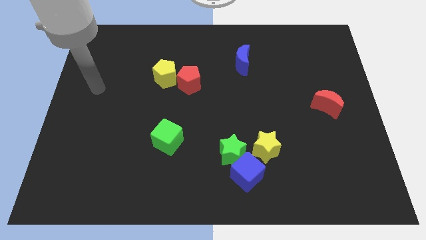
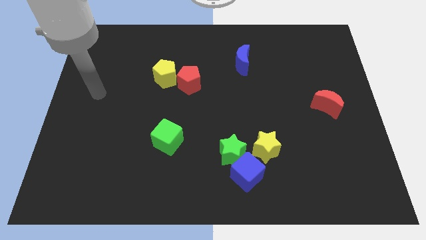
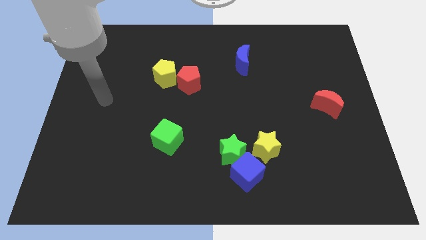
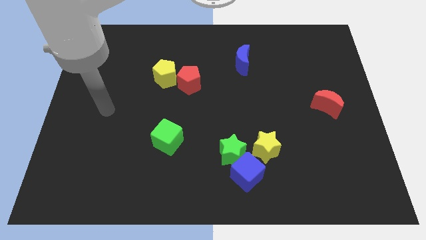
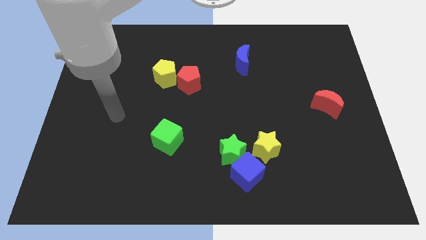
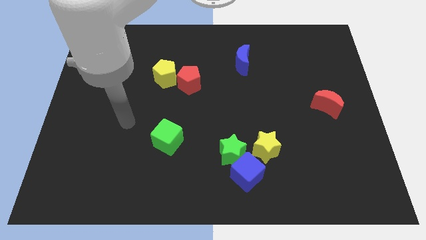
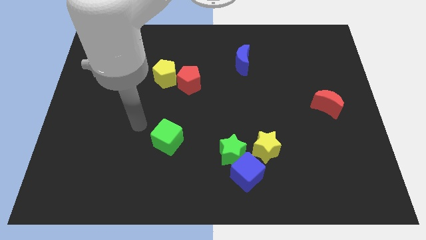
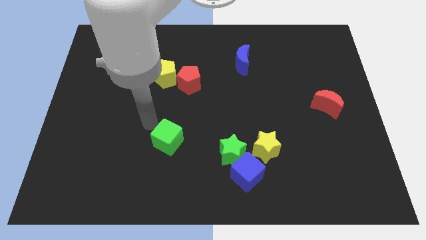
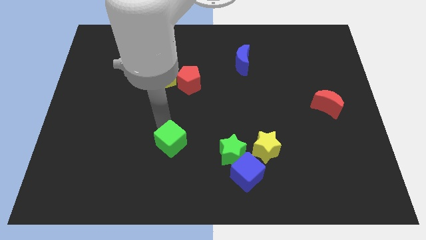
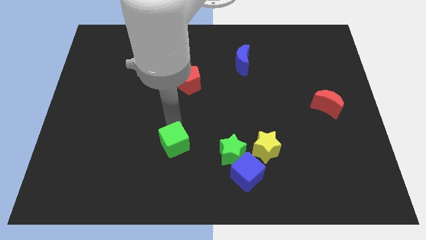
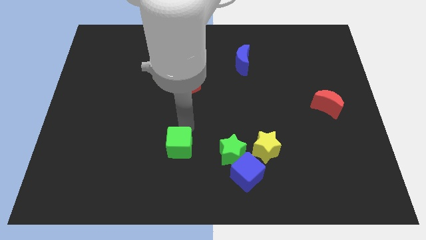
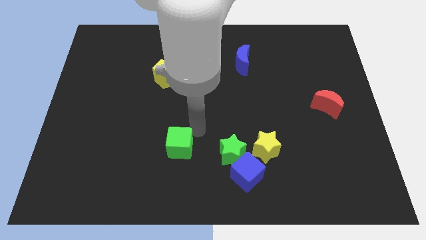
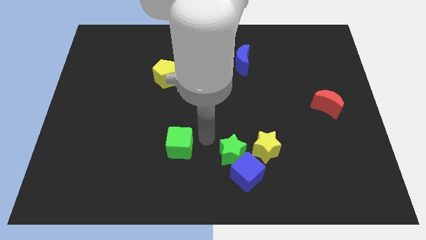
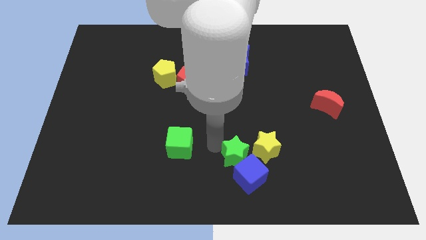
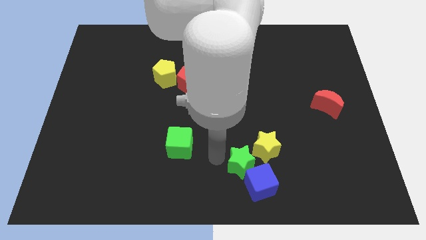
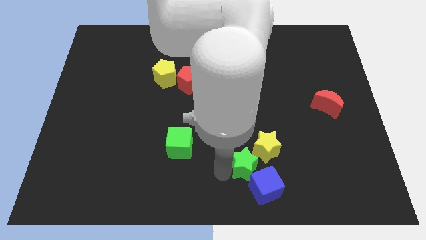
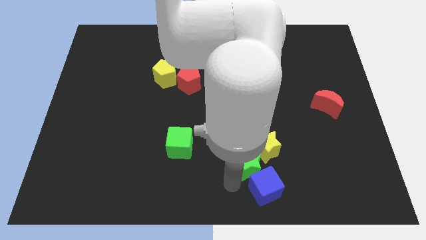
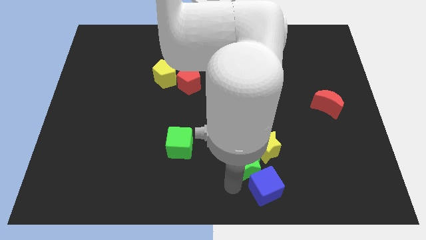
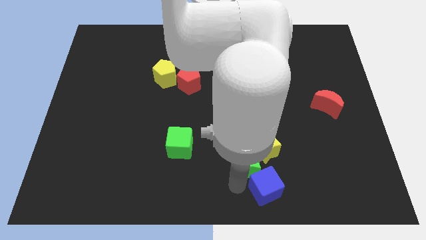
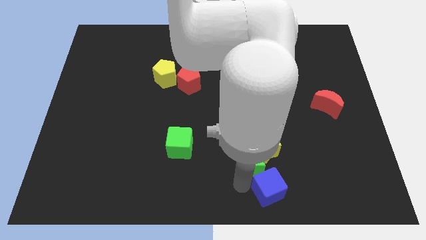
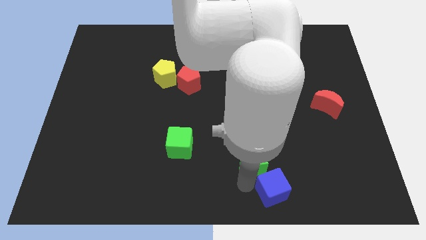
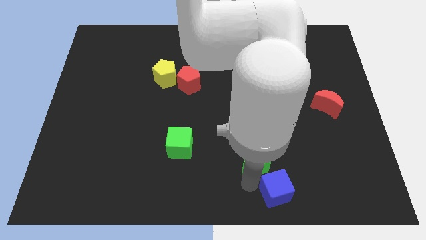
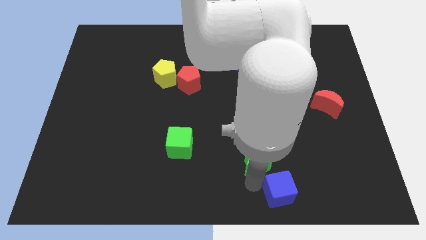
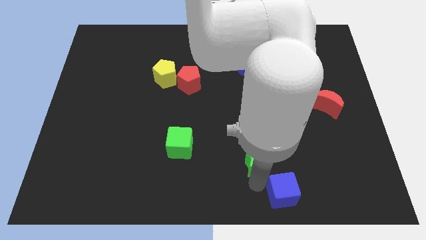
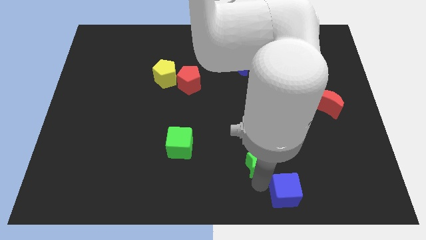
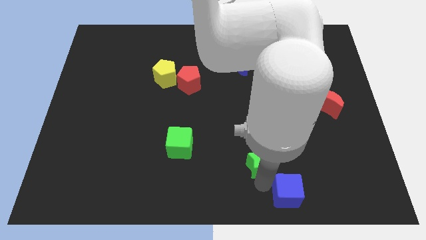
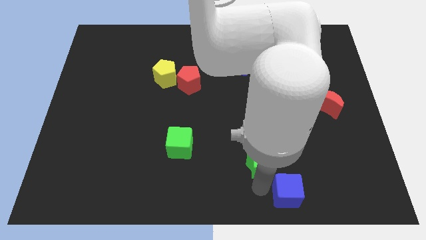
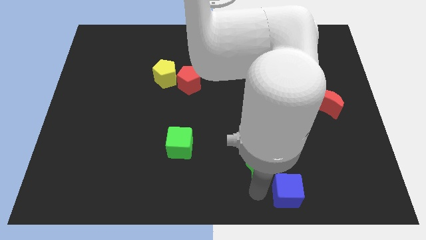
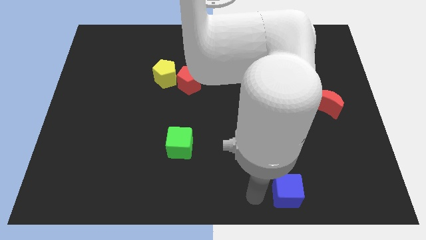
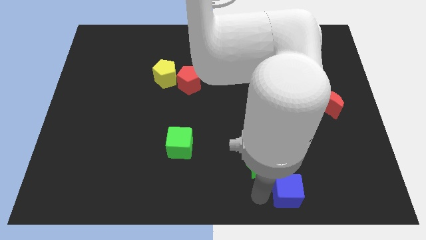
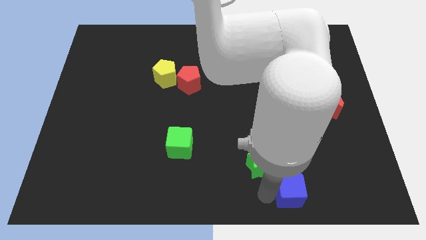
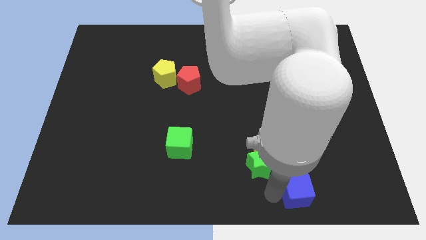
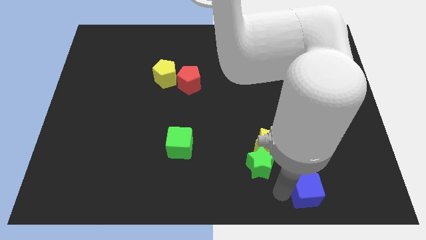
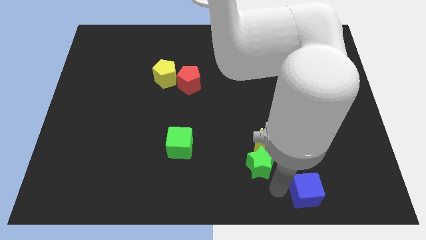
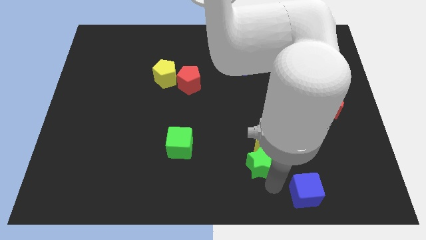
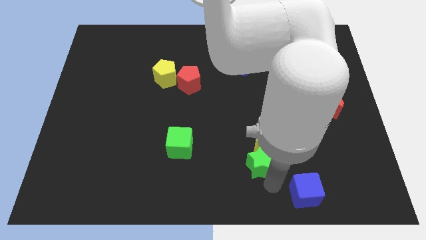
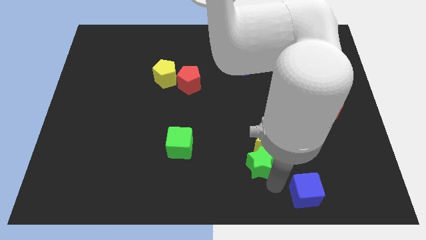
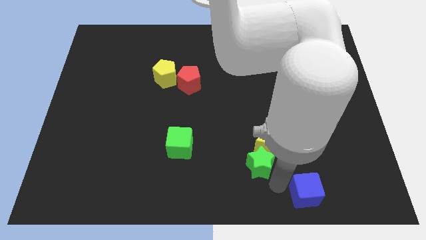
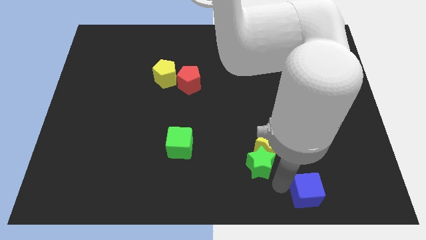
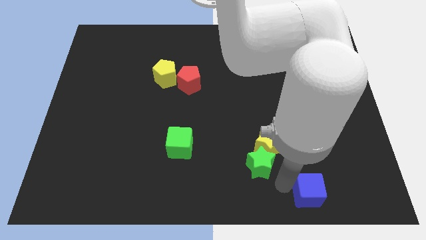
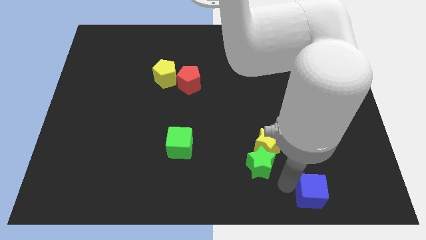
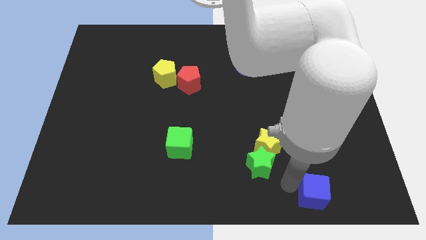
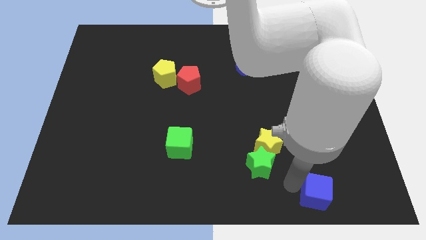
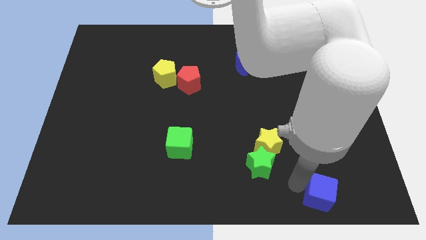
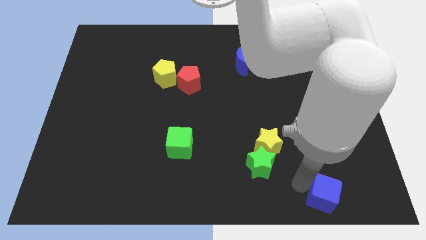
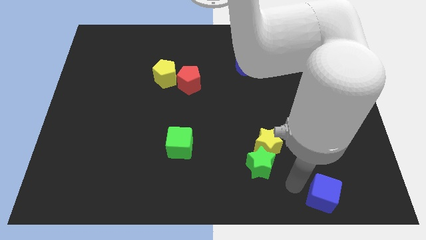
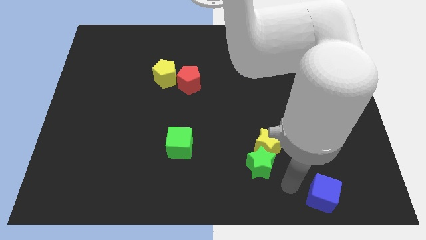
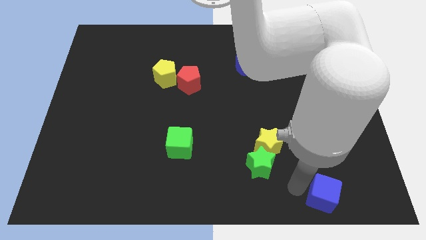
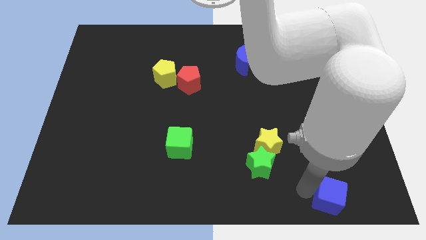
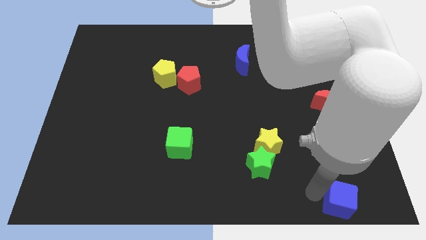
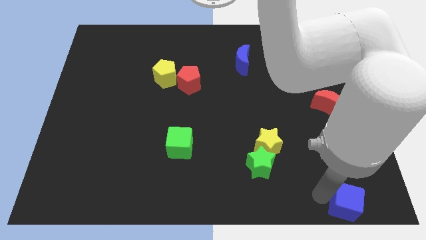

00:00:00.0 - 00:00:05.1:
put the blue cube to the bottom right corner

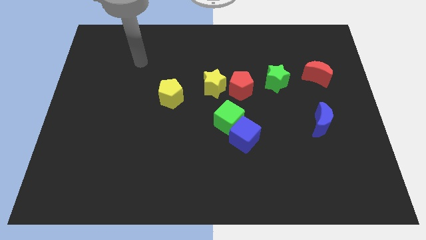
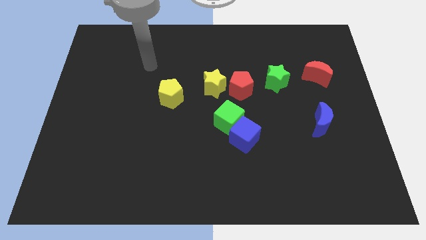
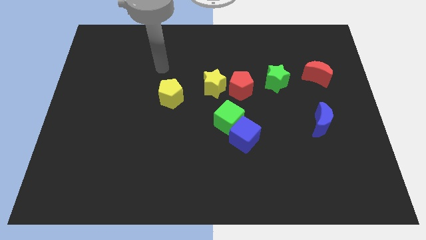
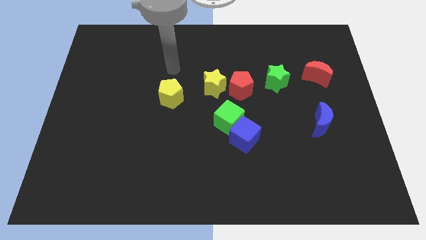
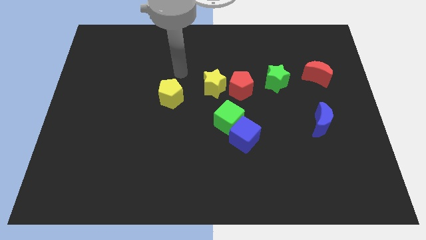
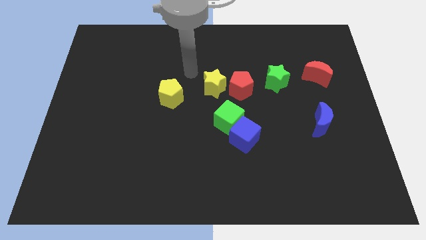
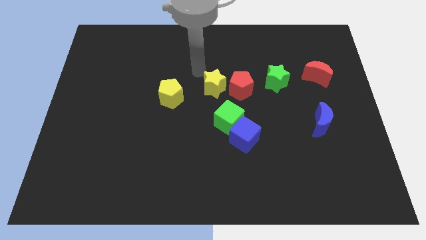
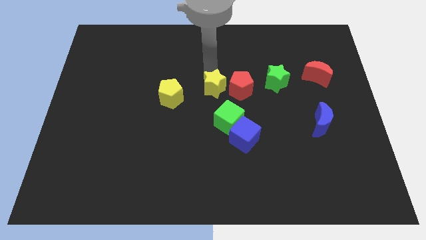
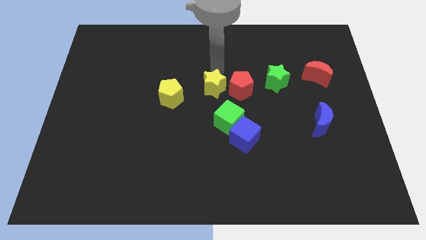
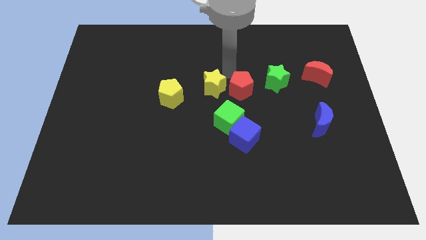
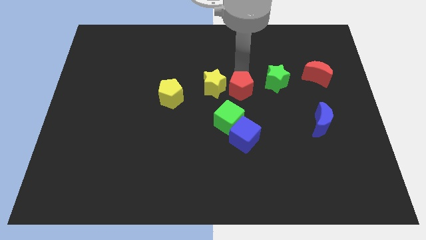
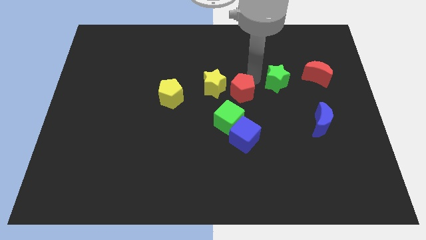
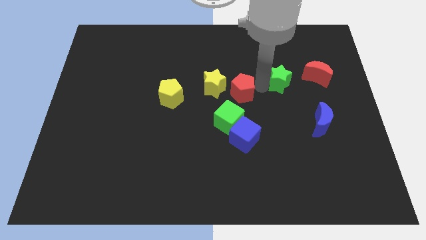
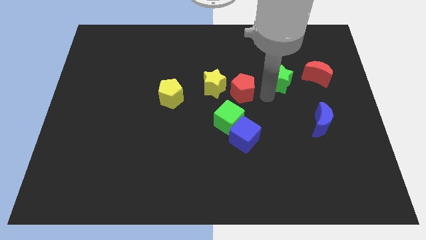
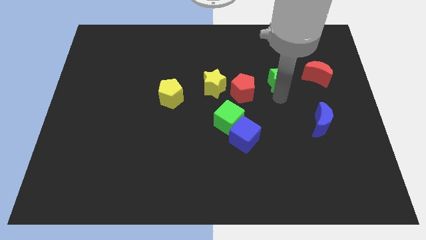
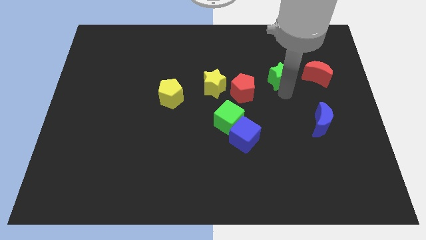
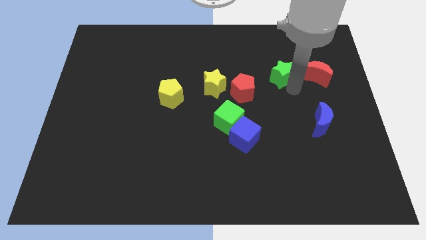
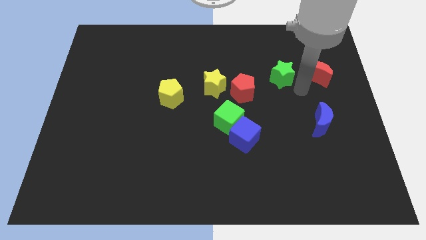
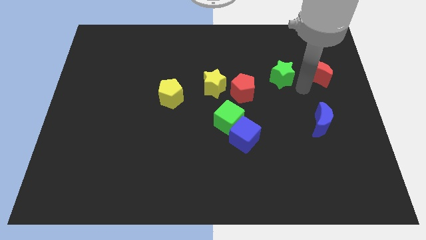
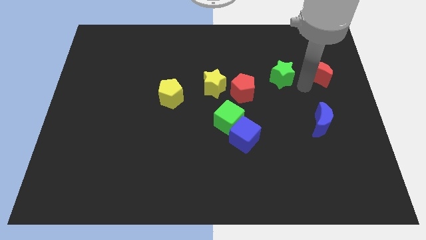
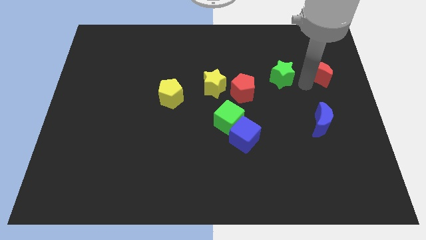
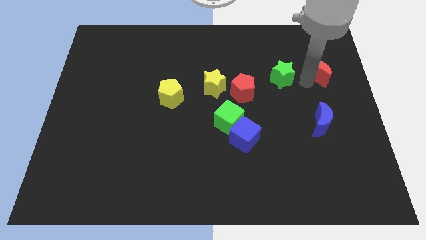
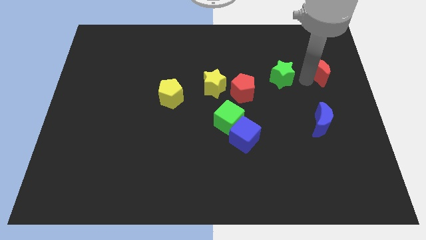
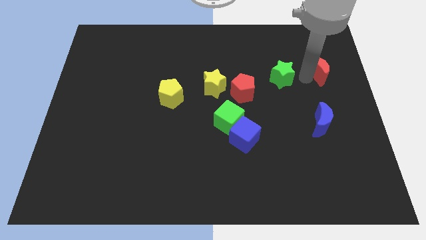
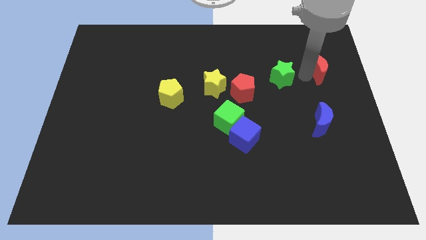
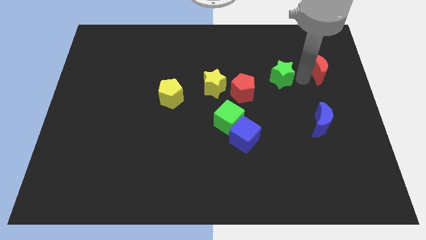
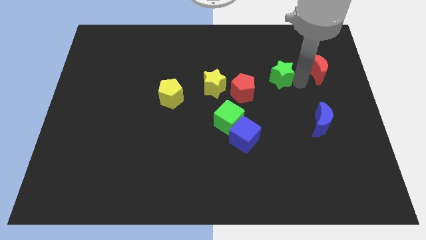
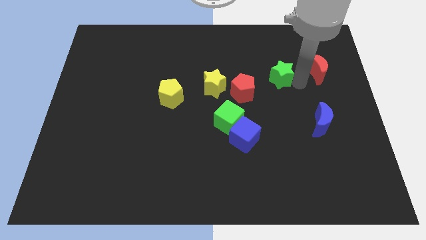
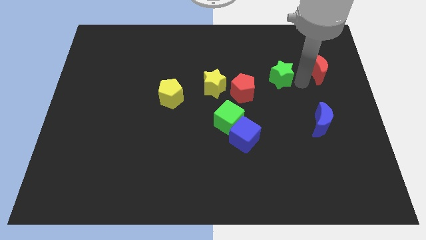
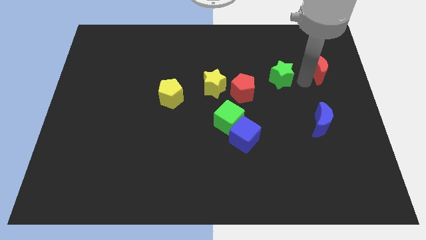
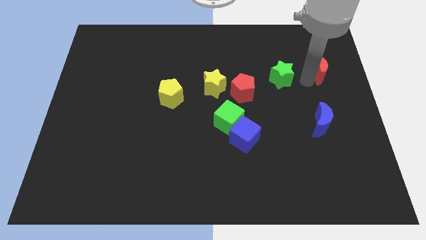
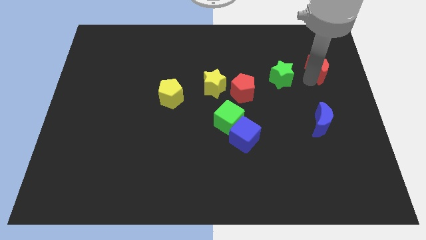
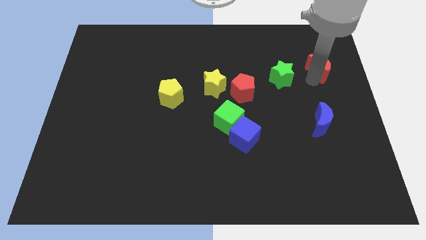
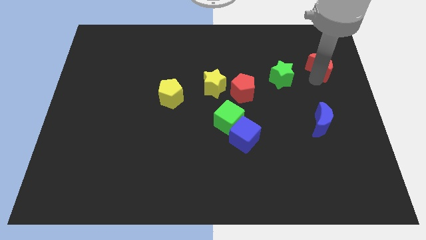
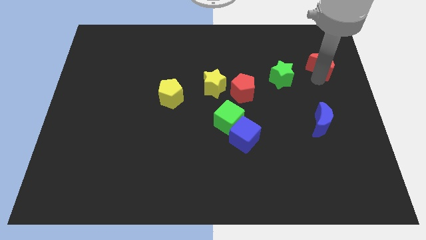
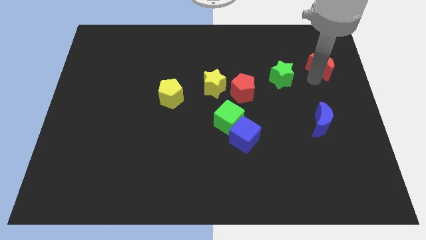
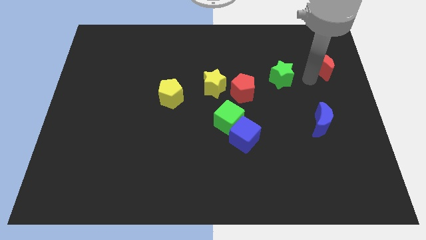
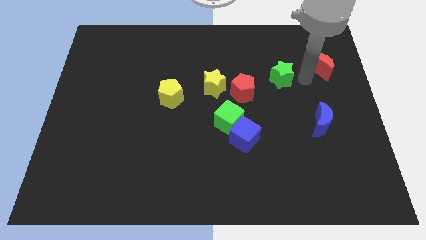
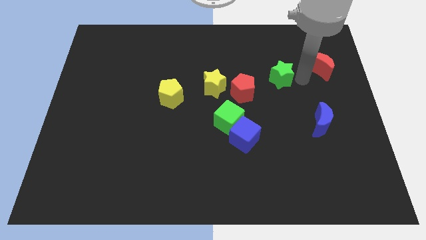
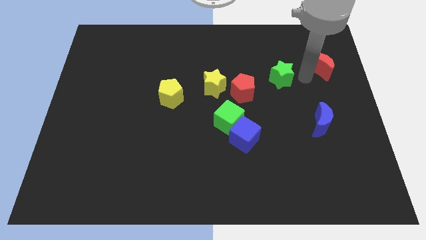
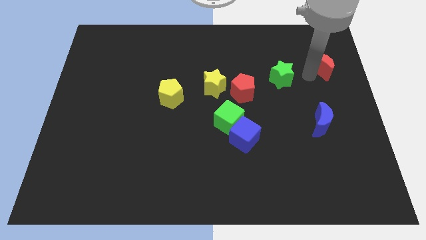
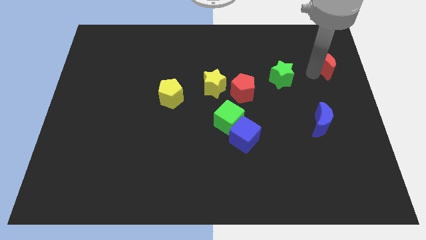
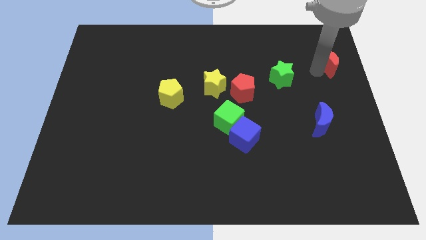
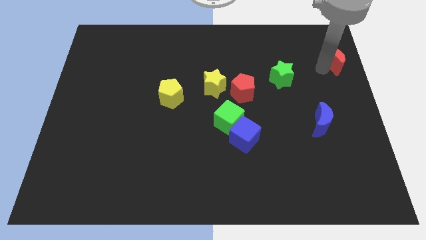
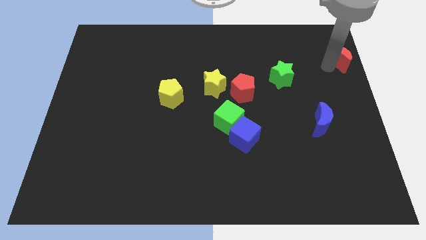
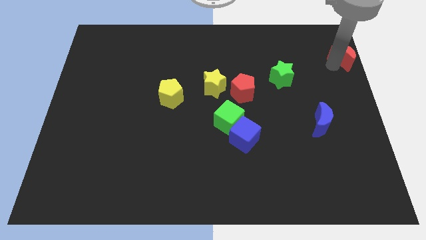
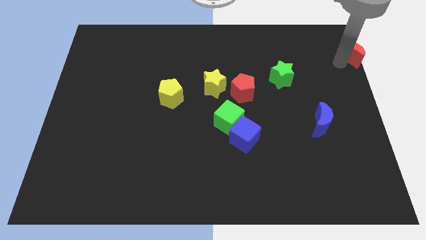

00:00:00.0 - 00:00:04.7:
slide the red moon to the top right
